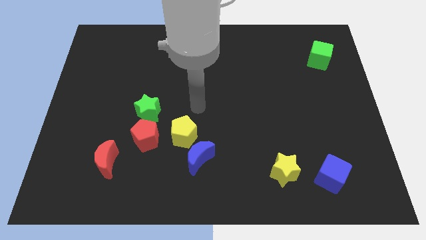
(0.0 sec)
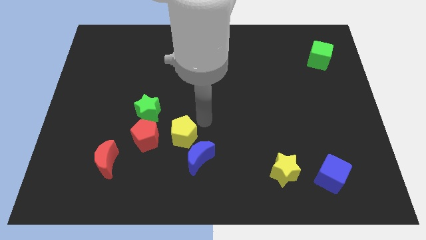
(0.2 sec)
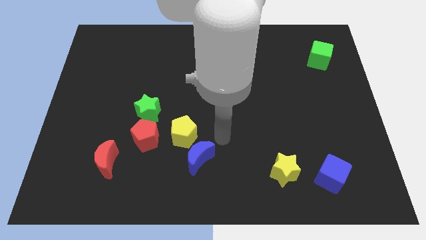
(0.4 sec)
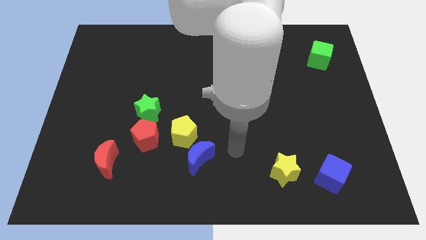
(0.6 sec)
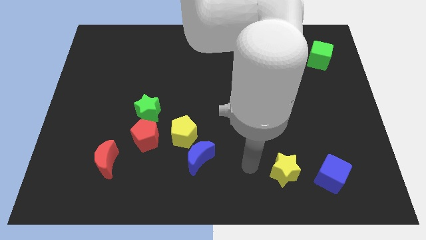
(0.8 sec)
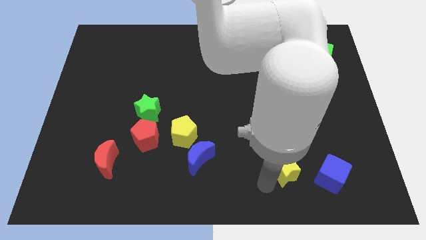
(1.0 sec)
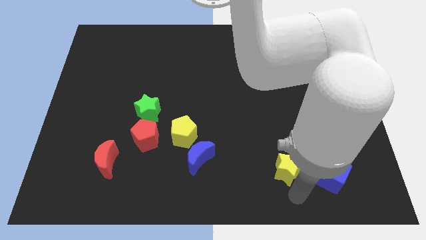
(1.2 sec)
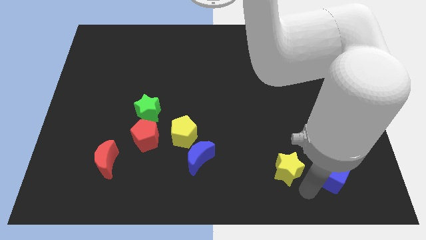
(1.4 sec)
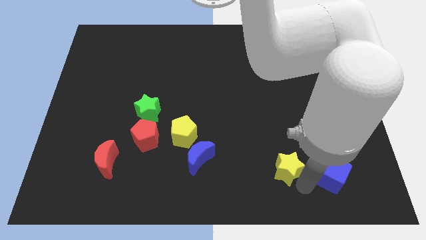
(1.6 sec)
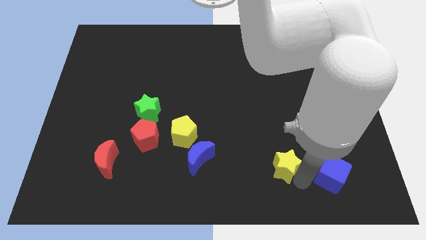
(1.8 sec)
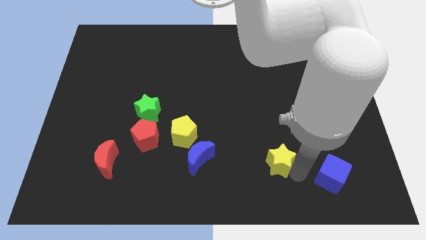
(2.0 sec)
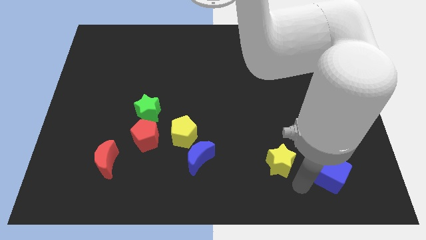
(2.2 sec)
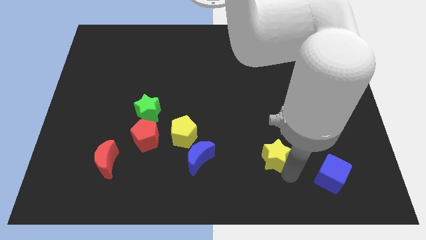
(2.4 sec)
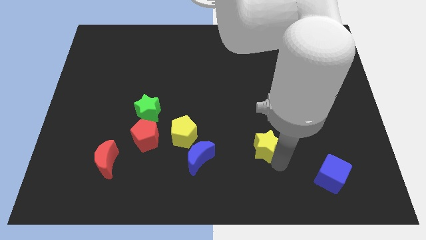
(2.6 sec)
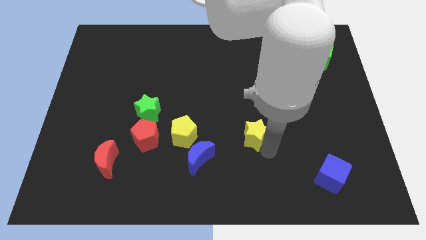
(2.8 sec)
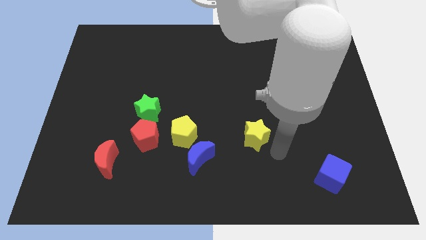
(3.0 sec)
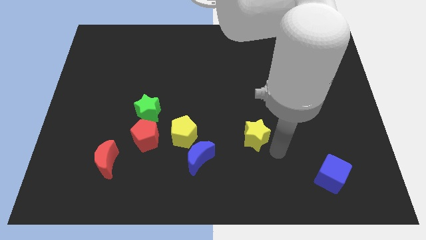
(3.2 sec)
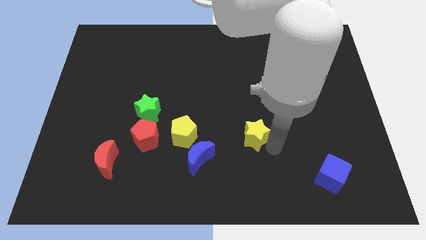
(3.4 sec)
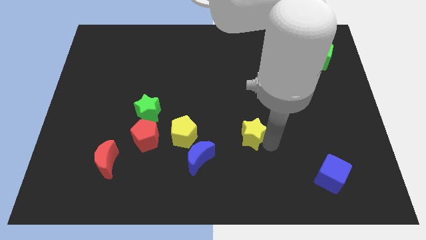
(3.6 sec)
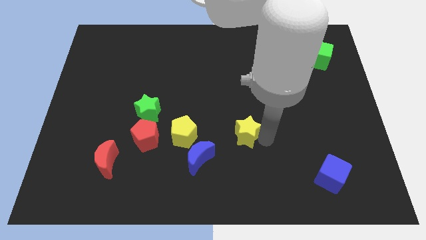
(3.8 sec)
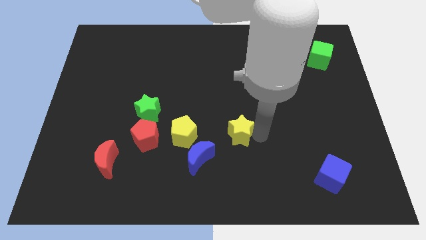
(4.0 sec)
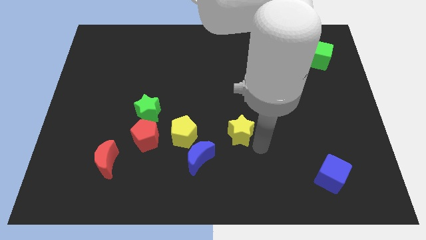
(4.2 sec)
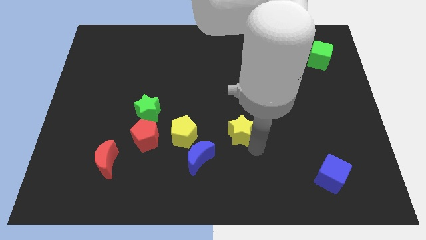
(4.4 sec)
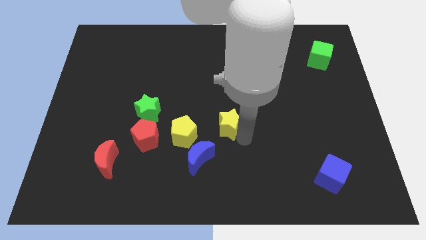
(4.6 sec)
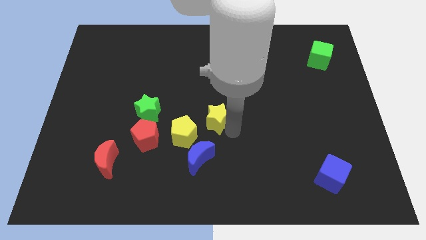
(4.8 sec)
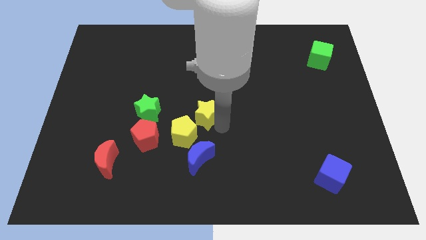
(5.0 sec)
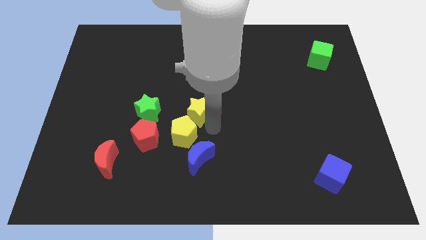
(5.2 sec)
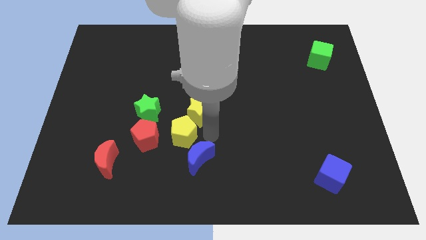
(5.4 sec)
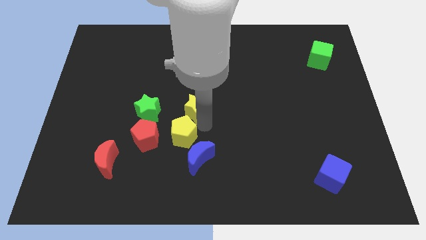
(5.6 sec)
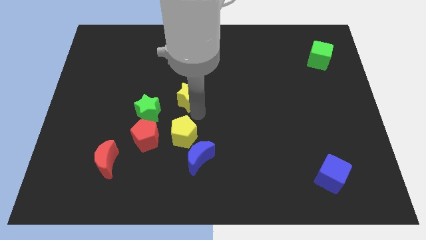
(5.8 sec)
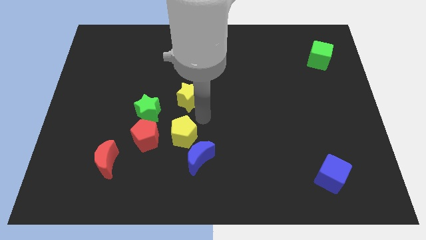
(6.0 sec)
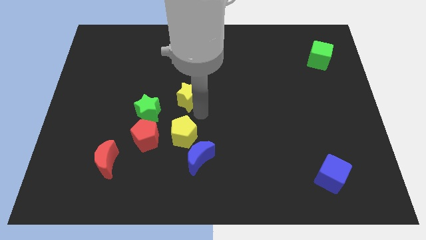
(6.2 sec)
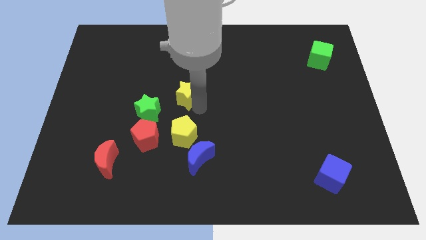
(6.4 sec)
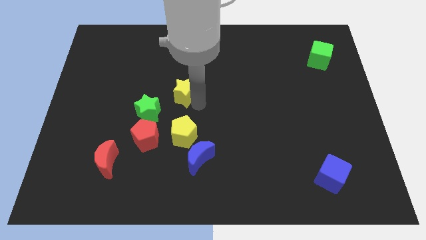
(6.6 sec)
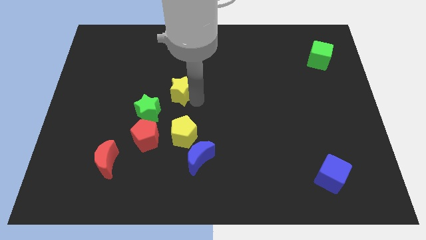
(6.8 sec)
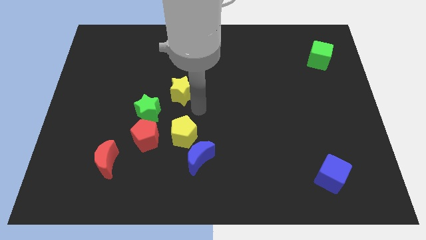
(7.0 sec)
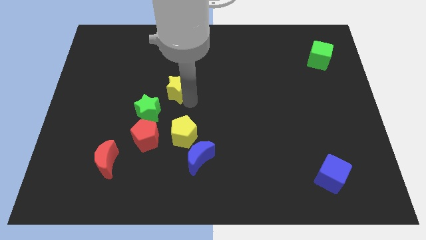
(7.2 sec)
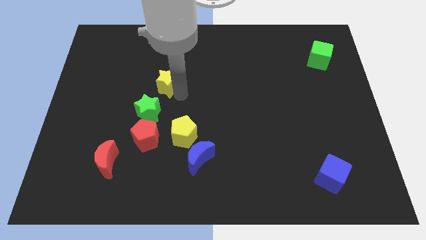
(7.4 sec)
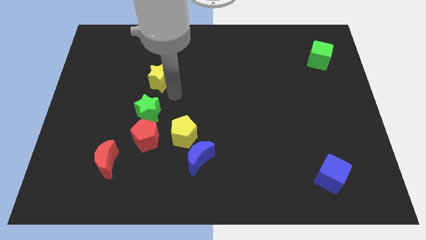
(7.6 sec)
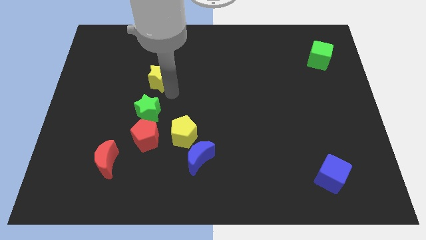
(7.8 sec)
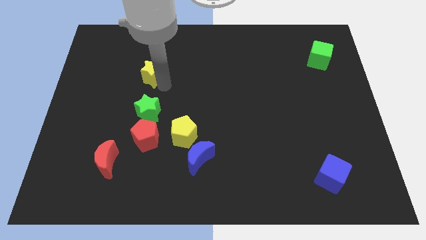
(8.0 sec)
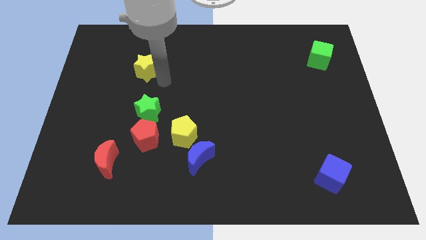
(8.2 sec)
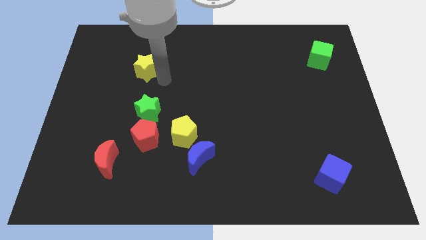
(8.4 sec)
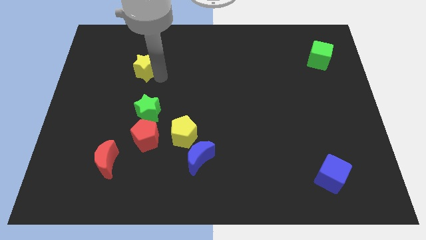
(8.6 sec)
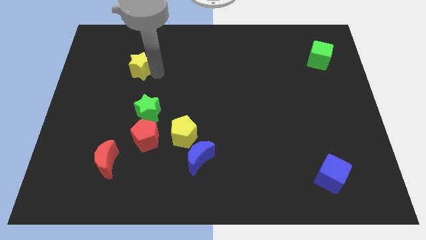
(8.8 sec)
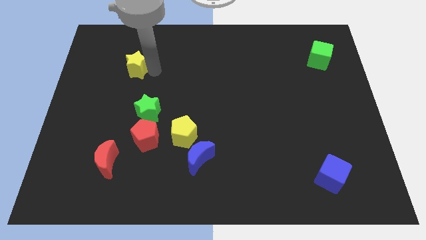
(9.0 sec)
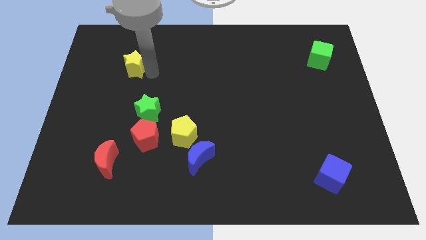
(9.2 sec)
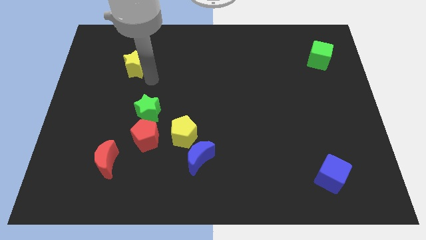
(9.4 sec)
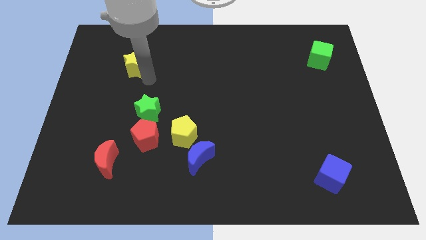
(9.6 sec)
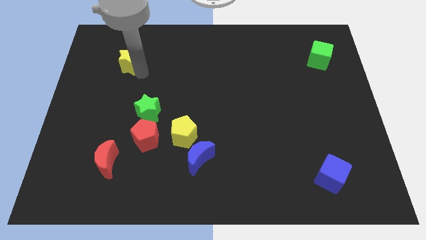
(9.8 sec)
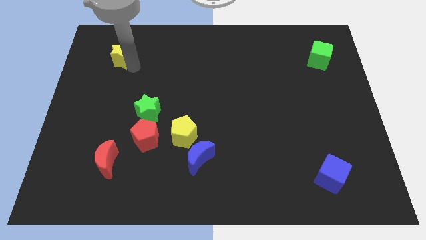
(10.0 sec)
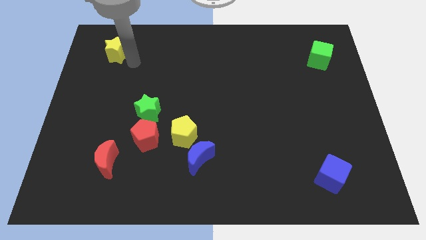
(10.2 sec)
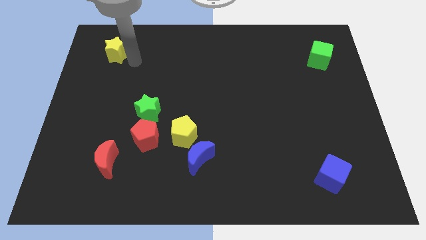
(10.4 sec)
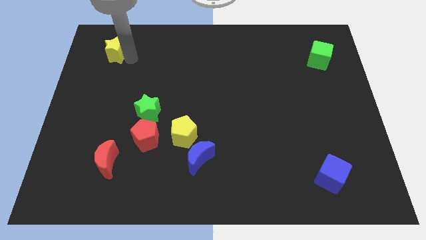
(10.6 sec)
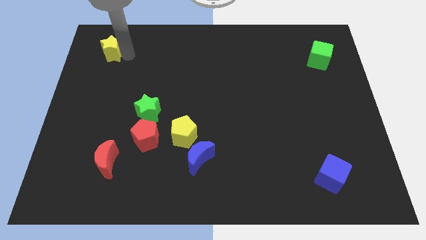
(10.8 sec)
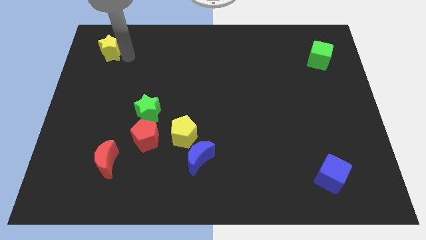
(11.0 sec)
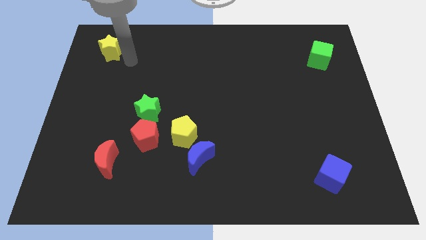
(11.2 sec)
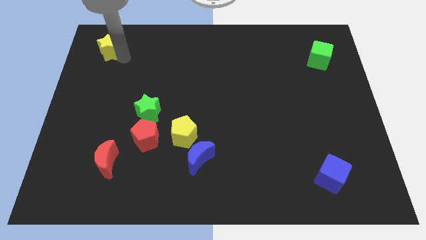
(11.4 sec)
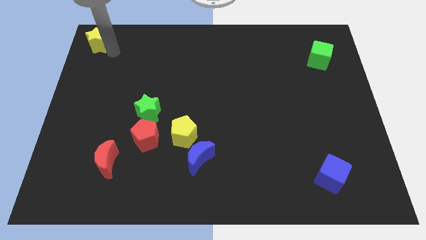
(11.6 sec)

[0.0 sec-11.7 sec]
move the yellow star to the top left of the board

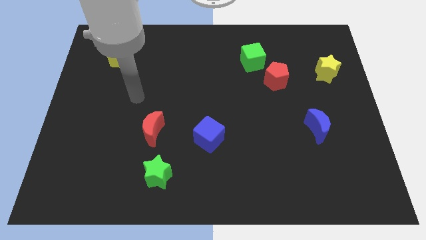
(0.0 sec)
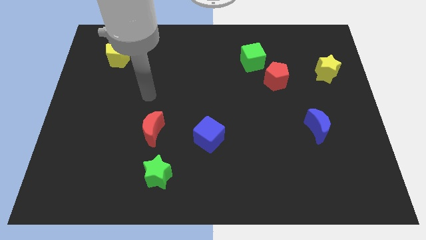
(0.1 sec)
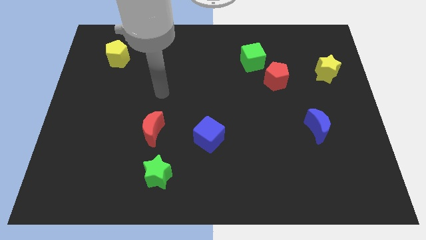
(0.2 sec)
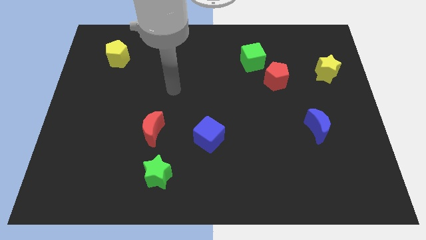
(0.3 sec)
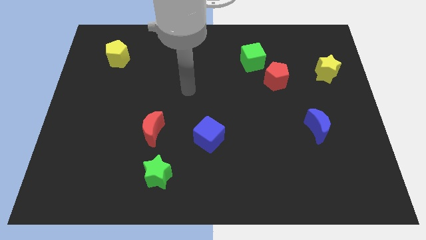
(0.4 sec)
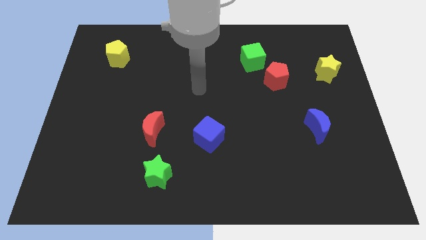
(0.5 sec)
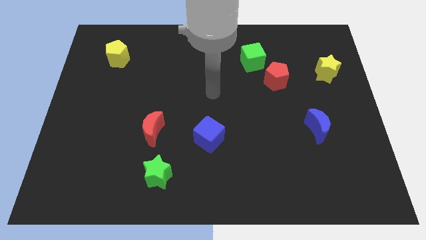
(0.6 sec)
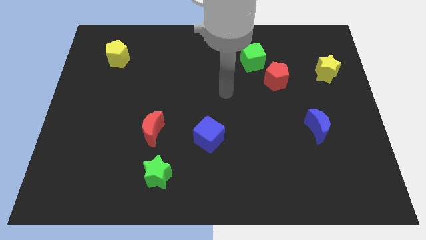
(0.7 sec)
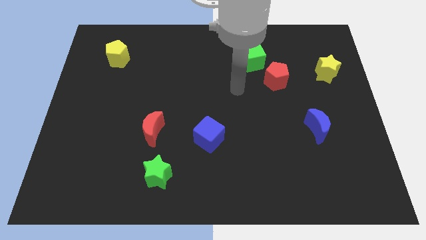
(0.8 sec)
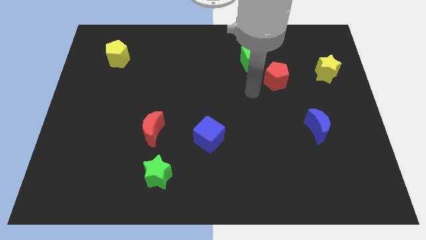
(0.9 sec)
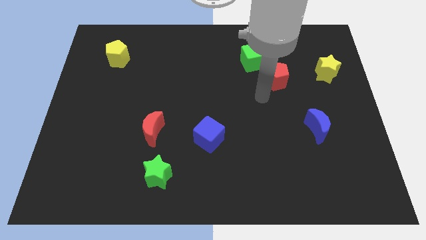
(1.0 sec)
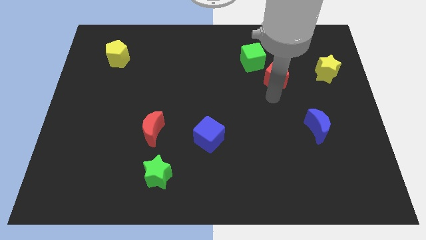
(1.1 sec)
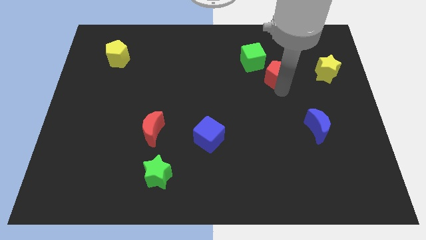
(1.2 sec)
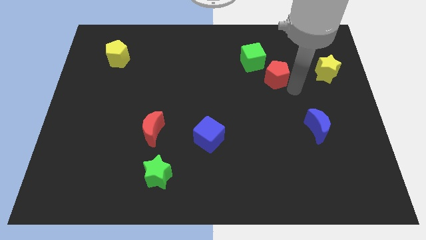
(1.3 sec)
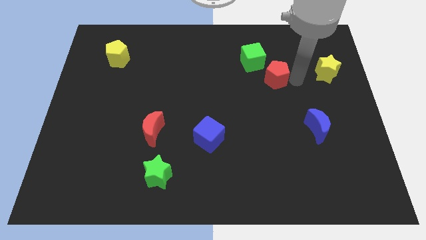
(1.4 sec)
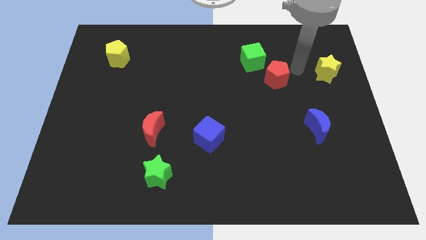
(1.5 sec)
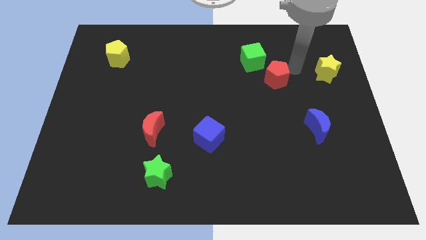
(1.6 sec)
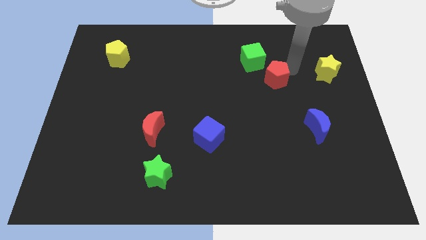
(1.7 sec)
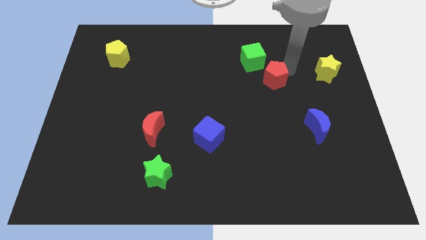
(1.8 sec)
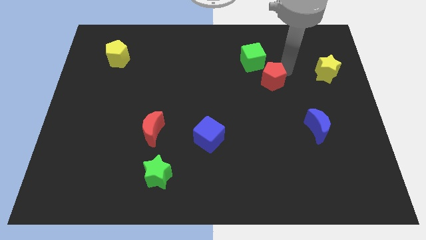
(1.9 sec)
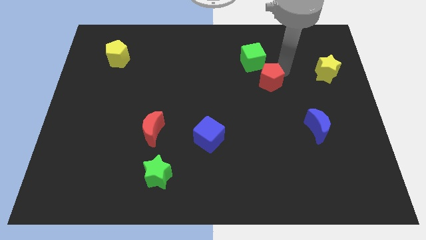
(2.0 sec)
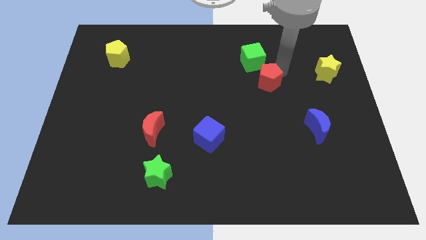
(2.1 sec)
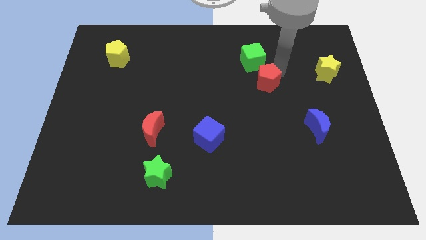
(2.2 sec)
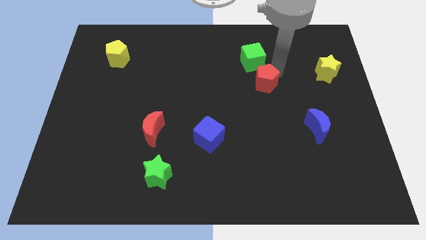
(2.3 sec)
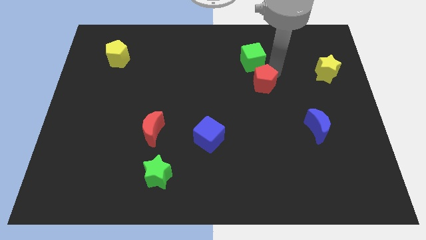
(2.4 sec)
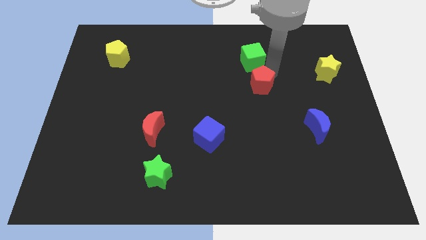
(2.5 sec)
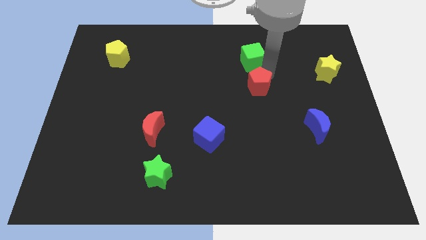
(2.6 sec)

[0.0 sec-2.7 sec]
push the red pentagon to the center of the board
